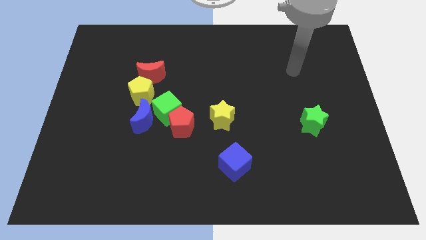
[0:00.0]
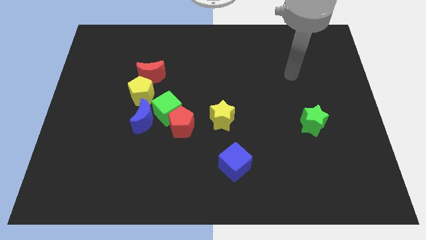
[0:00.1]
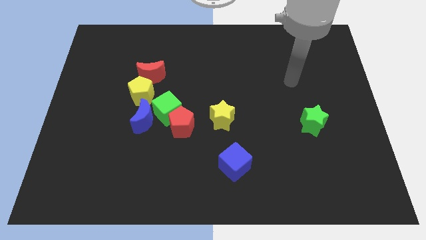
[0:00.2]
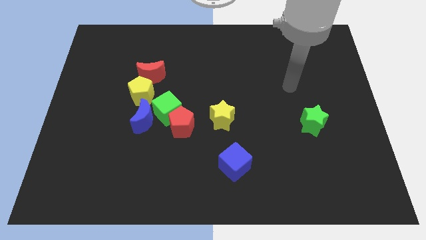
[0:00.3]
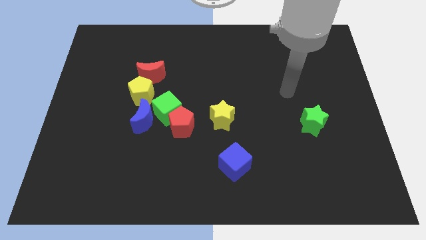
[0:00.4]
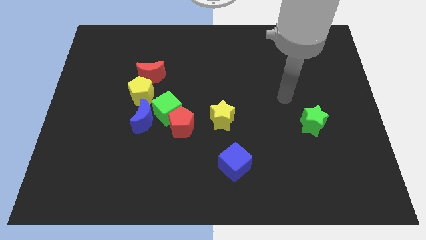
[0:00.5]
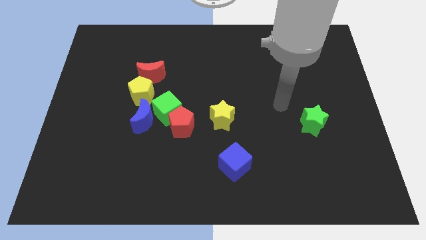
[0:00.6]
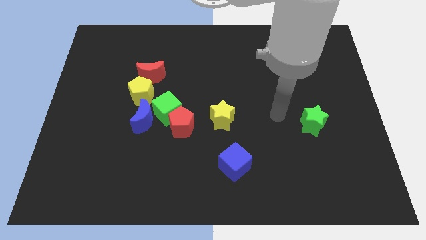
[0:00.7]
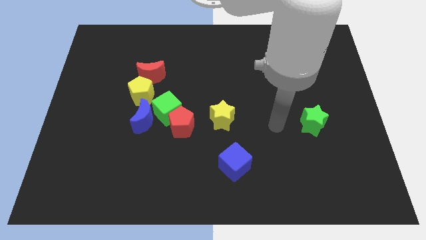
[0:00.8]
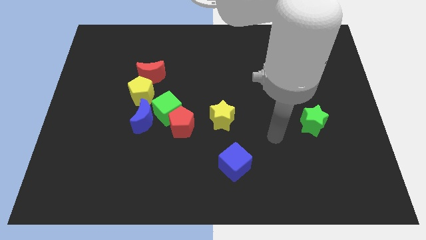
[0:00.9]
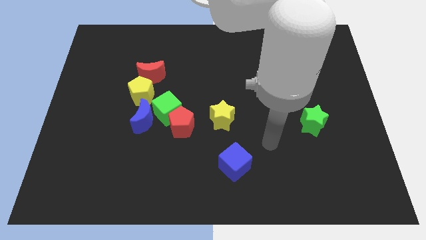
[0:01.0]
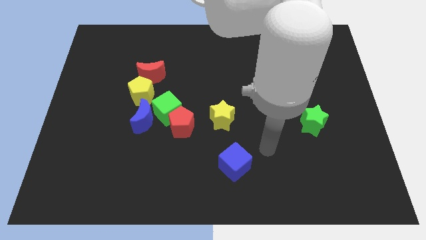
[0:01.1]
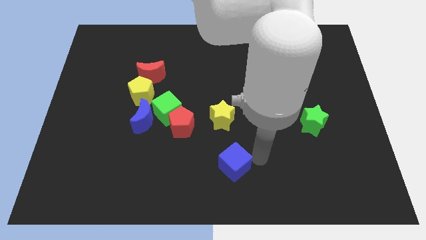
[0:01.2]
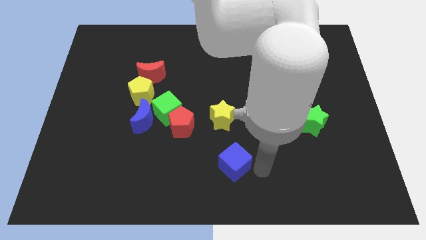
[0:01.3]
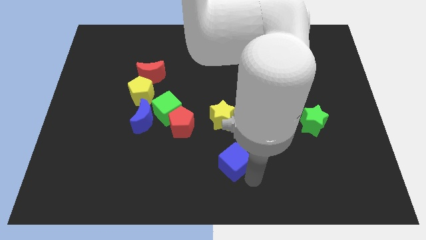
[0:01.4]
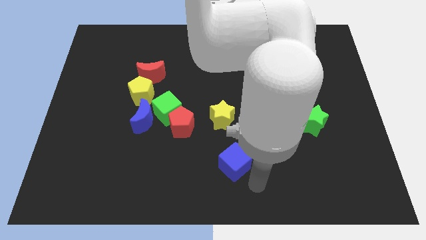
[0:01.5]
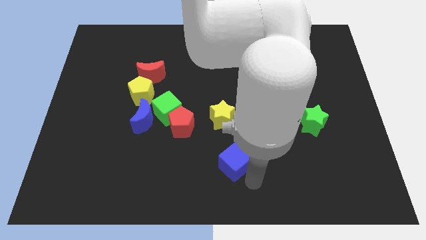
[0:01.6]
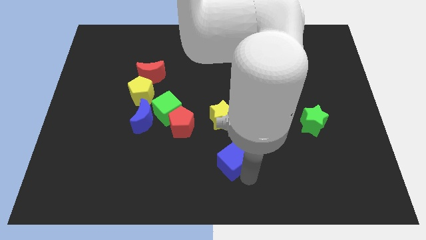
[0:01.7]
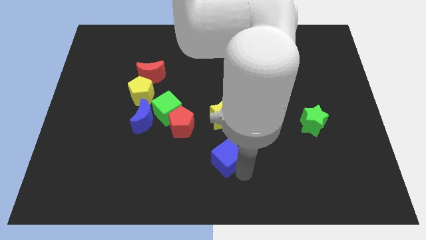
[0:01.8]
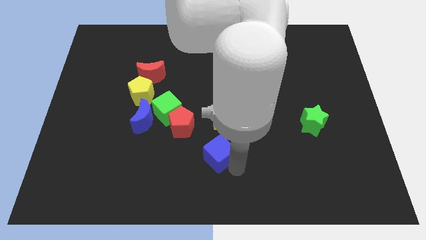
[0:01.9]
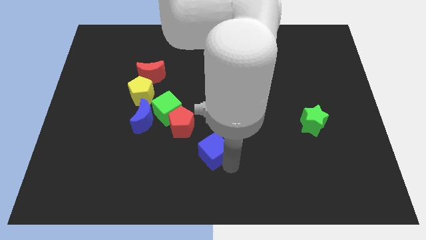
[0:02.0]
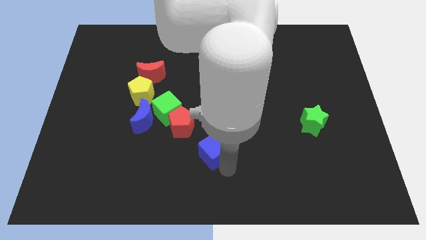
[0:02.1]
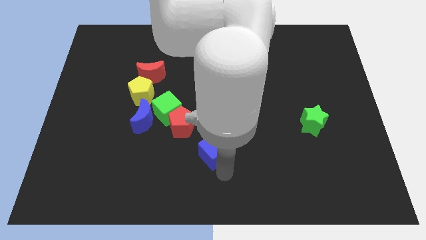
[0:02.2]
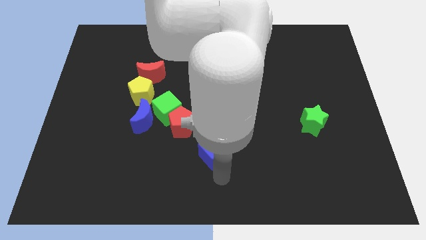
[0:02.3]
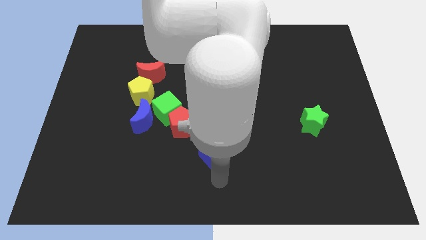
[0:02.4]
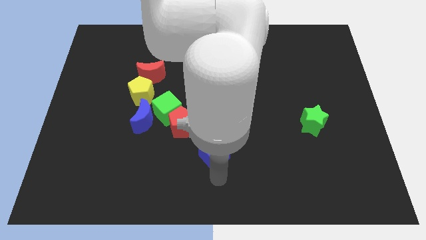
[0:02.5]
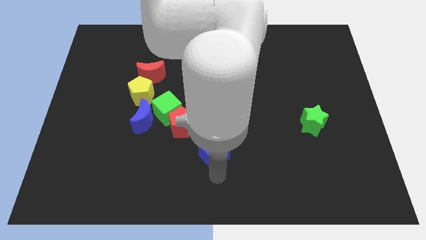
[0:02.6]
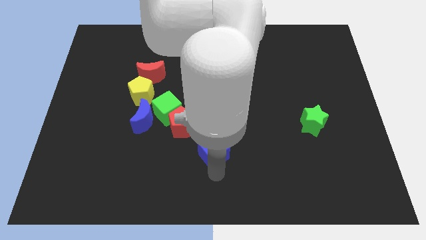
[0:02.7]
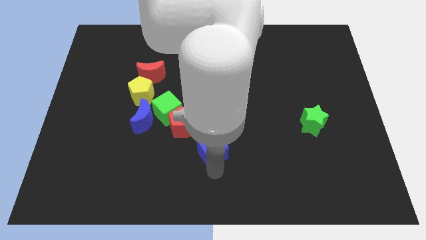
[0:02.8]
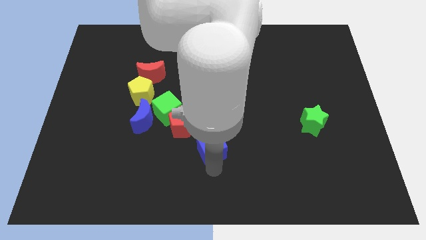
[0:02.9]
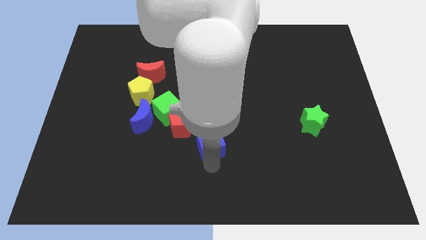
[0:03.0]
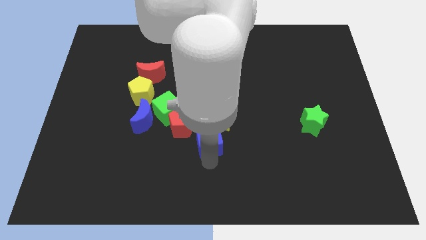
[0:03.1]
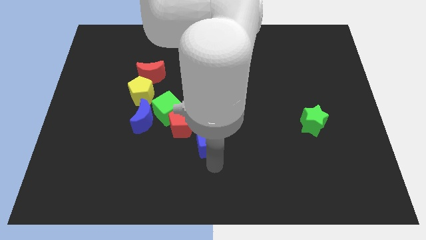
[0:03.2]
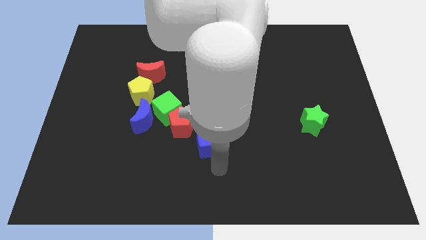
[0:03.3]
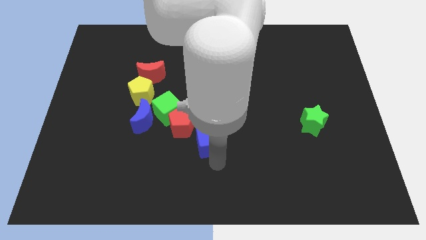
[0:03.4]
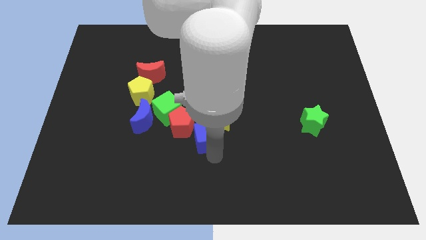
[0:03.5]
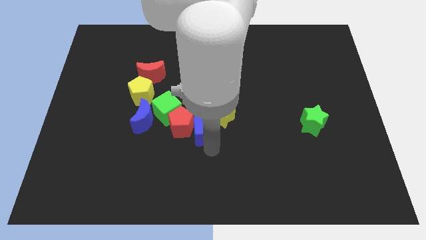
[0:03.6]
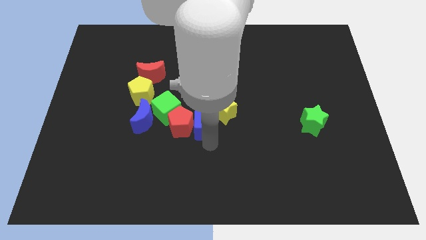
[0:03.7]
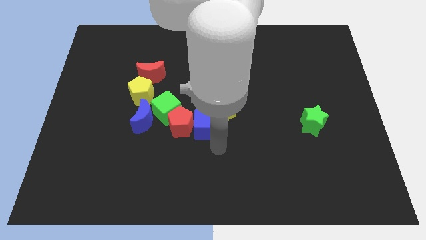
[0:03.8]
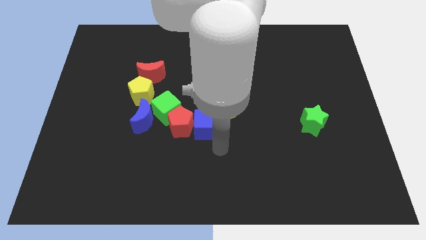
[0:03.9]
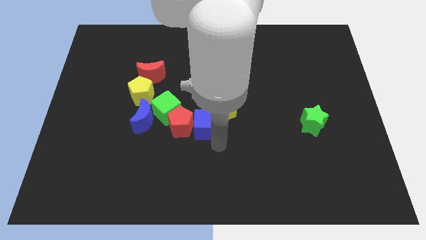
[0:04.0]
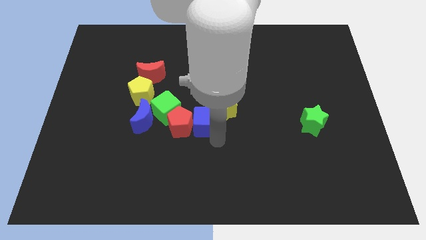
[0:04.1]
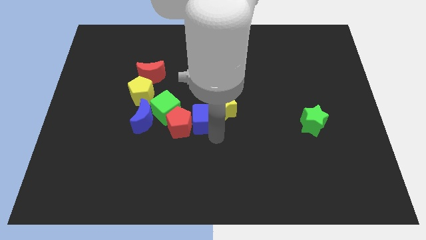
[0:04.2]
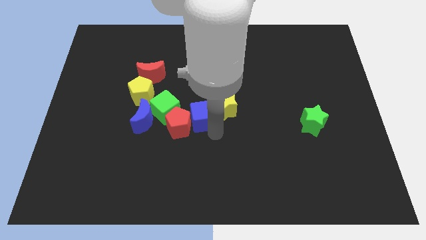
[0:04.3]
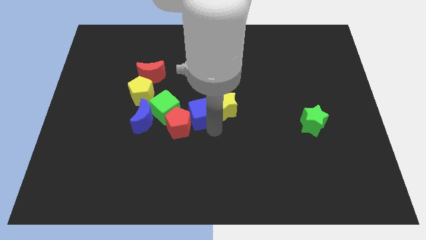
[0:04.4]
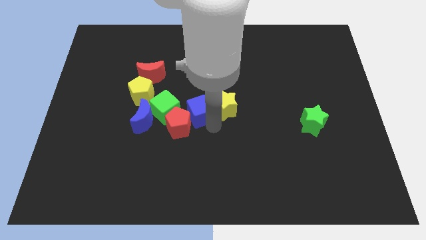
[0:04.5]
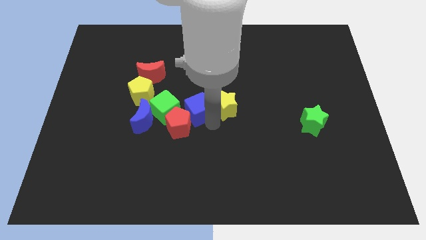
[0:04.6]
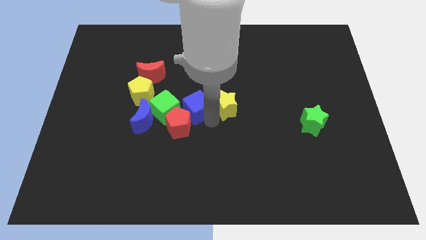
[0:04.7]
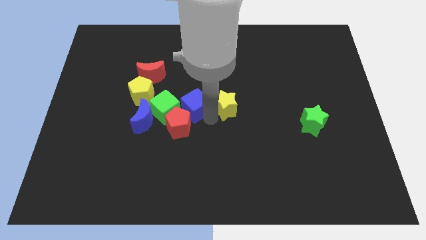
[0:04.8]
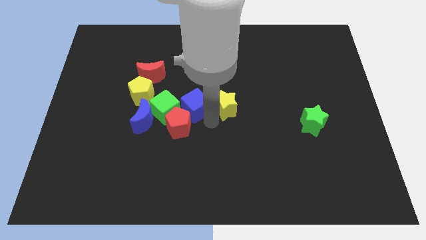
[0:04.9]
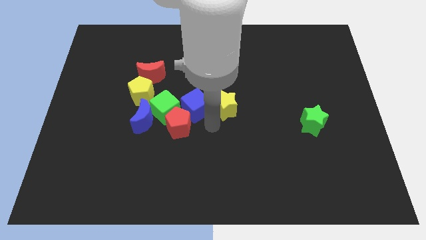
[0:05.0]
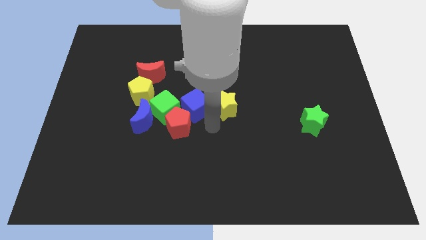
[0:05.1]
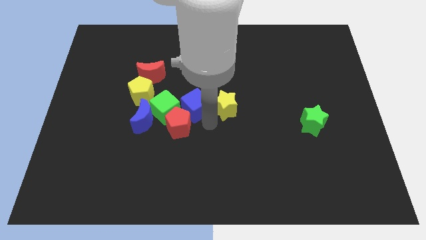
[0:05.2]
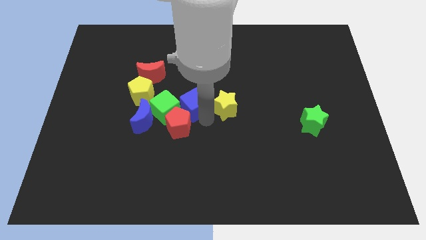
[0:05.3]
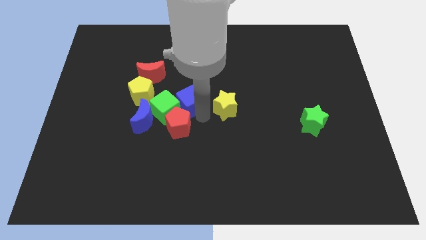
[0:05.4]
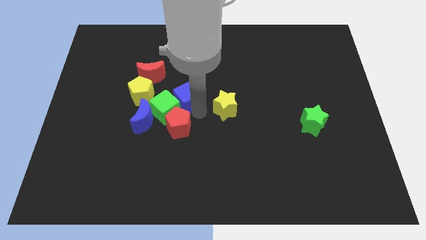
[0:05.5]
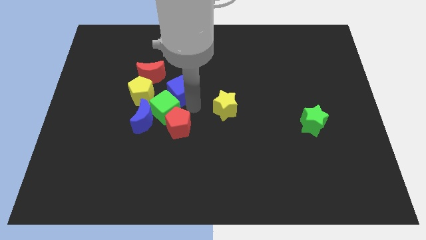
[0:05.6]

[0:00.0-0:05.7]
put the blue cube to the top of the green cube
